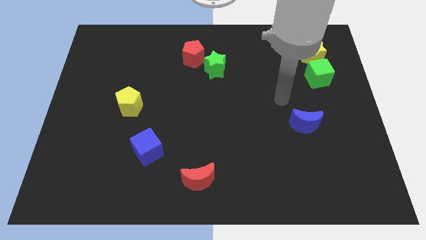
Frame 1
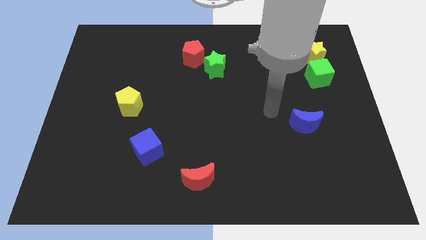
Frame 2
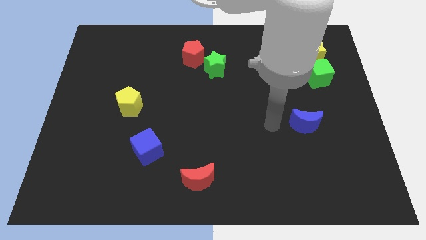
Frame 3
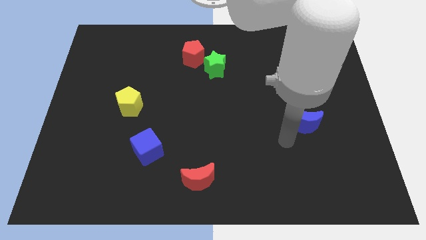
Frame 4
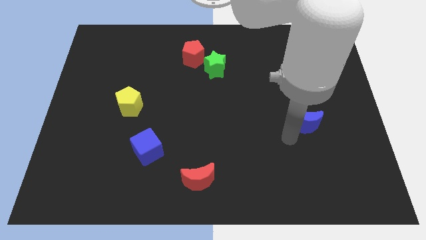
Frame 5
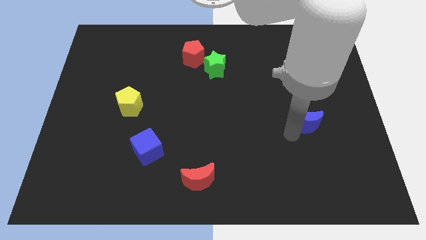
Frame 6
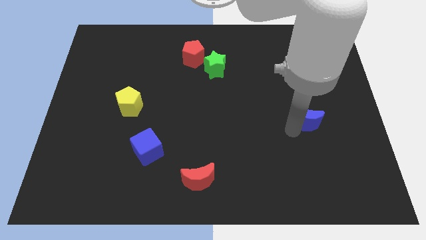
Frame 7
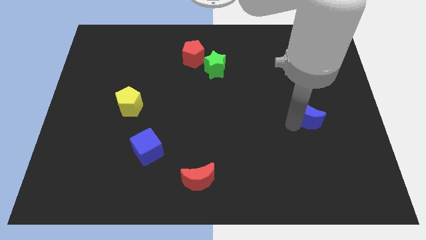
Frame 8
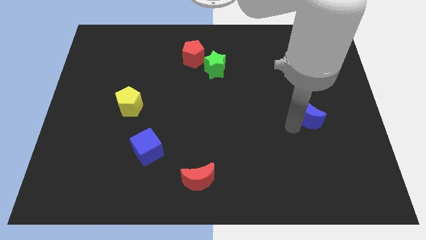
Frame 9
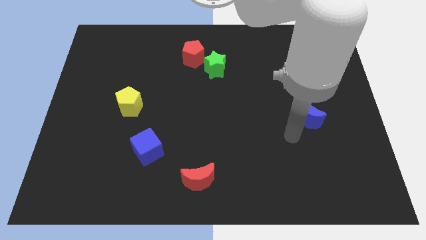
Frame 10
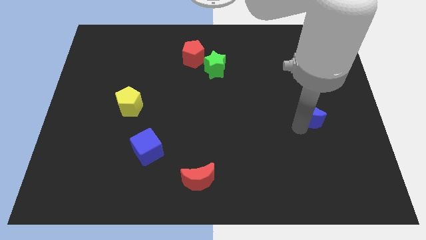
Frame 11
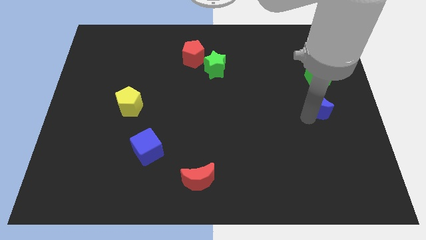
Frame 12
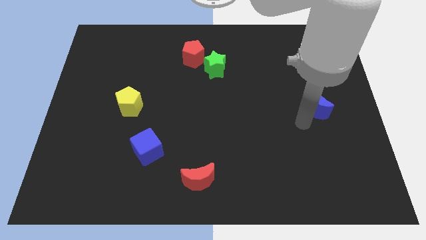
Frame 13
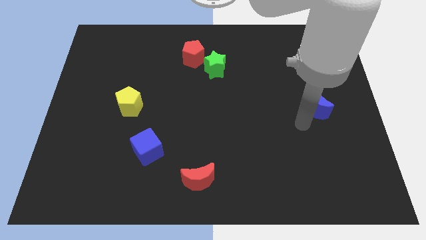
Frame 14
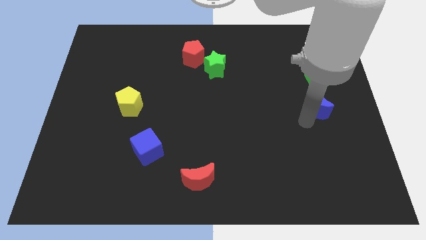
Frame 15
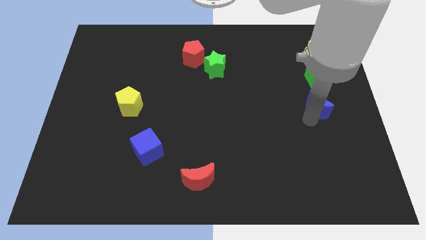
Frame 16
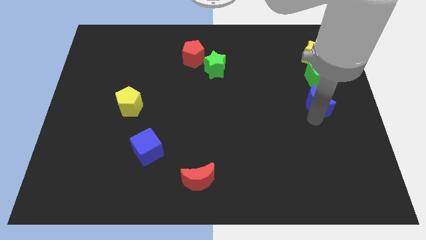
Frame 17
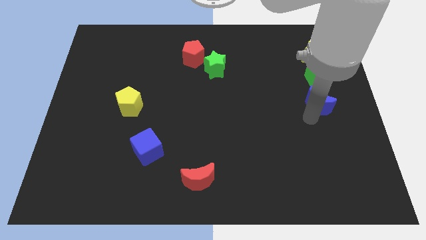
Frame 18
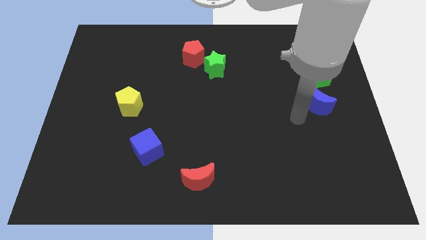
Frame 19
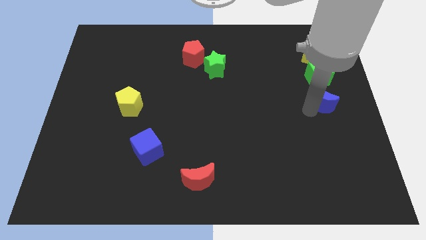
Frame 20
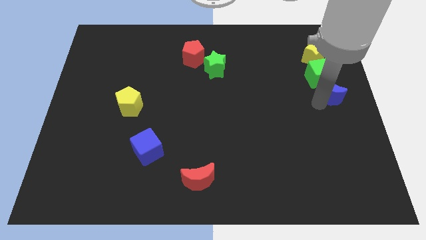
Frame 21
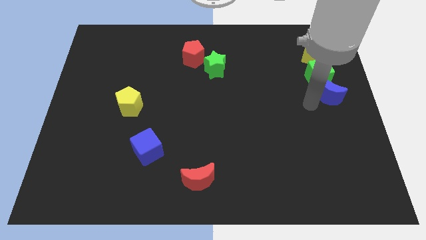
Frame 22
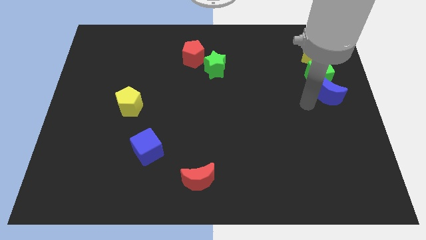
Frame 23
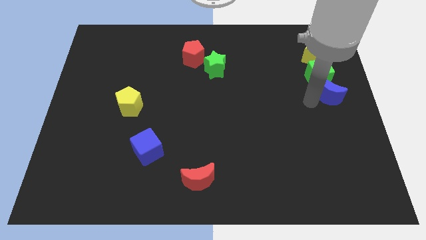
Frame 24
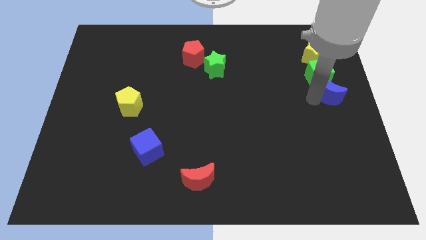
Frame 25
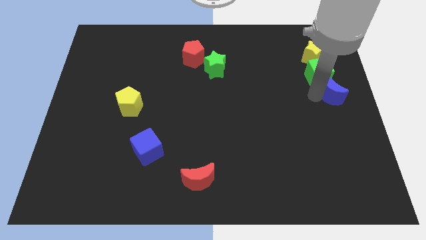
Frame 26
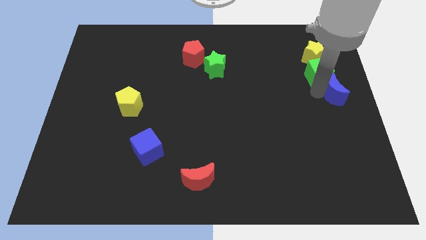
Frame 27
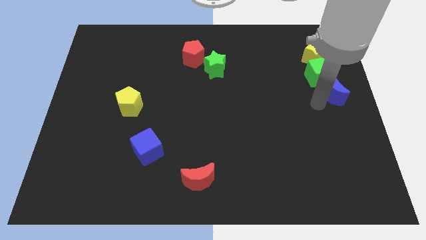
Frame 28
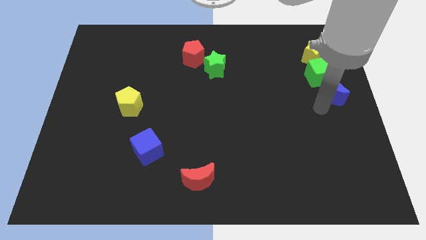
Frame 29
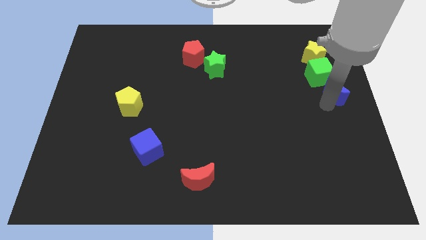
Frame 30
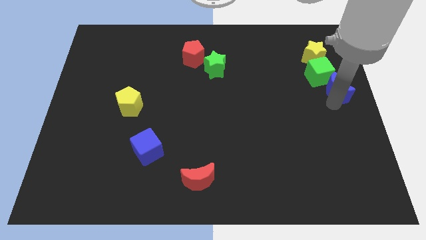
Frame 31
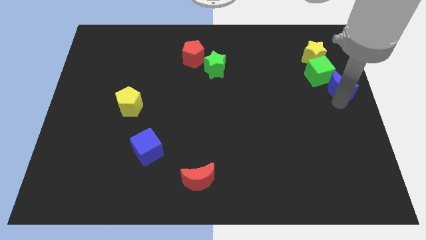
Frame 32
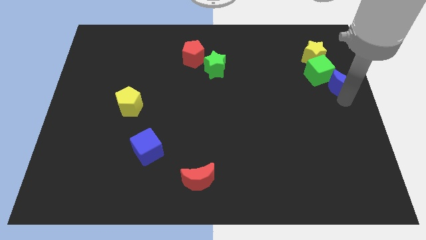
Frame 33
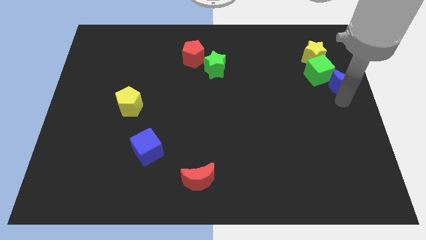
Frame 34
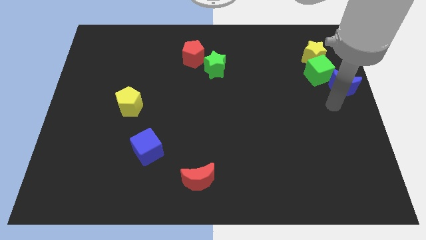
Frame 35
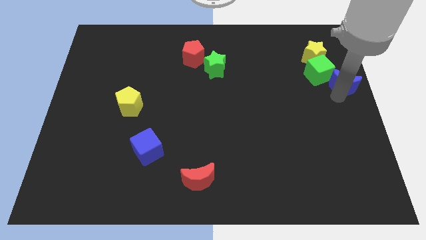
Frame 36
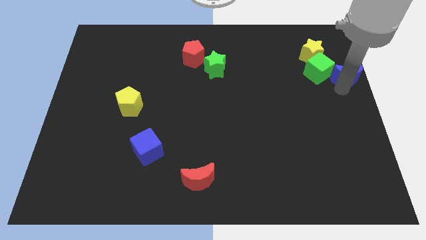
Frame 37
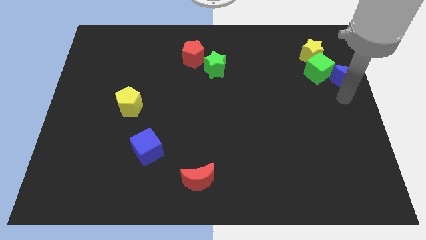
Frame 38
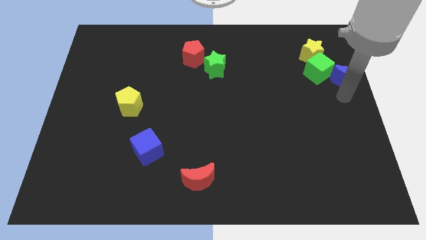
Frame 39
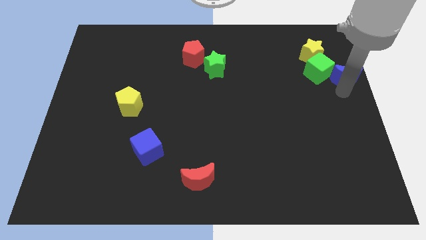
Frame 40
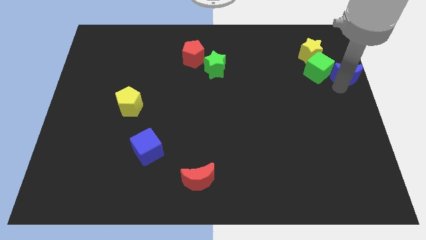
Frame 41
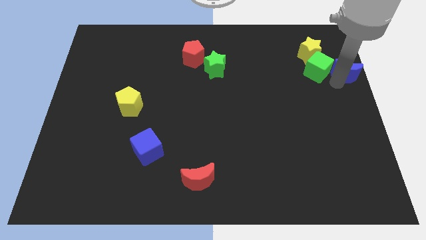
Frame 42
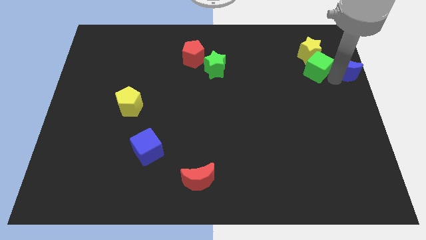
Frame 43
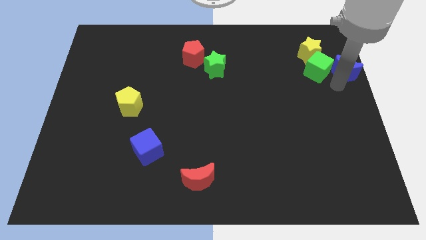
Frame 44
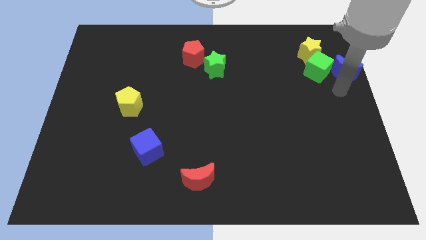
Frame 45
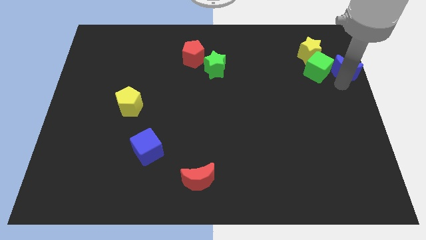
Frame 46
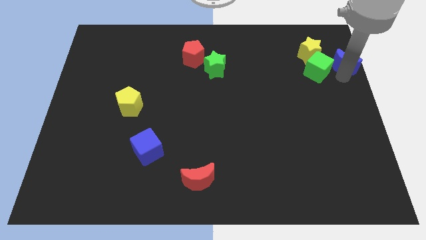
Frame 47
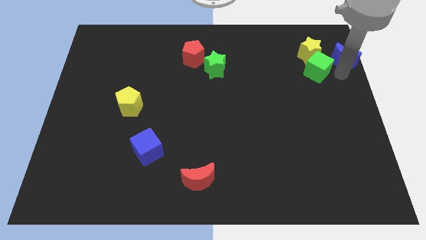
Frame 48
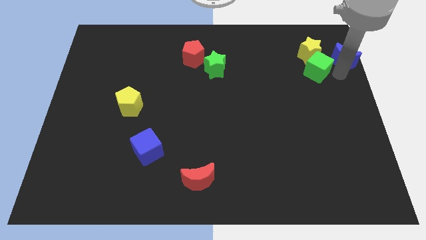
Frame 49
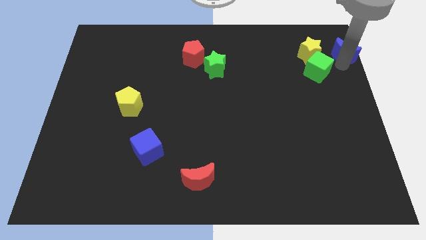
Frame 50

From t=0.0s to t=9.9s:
push the blue moon to the top right corner

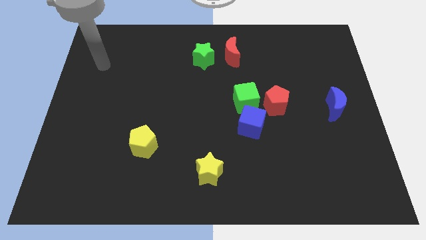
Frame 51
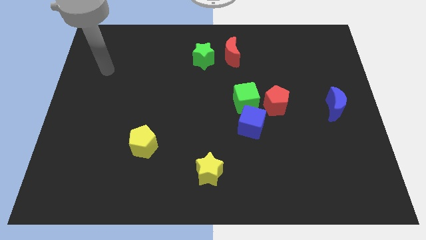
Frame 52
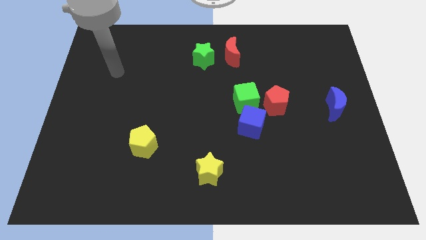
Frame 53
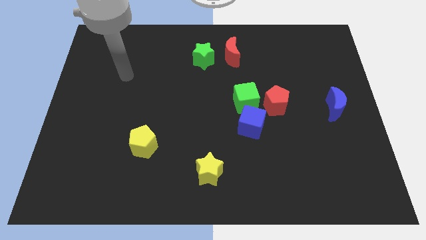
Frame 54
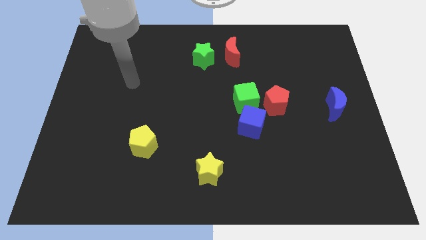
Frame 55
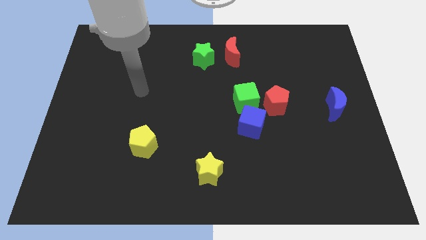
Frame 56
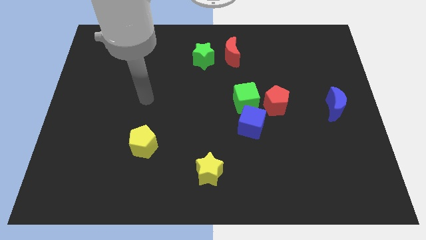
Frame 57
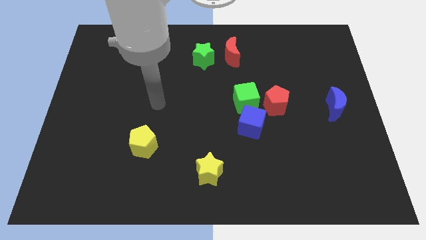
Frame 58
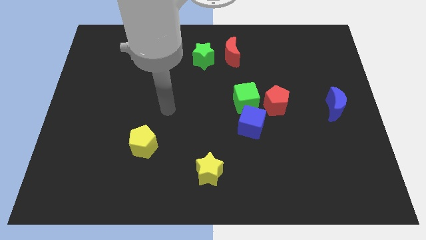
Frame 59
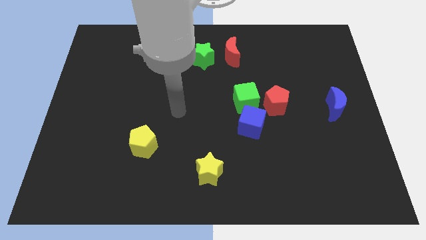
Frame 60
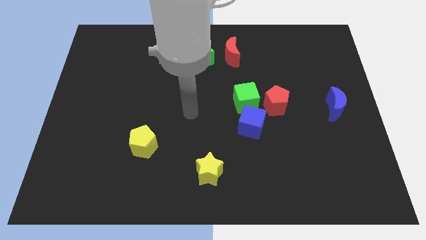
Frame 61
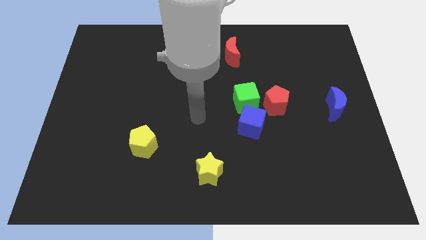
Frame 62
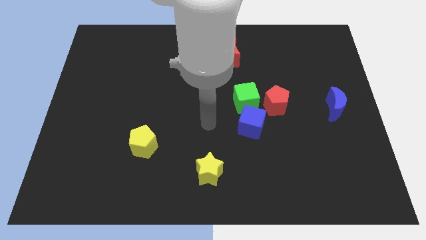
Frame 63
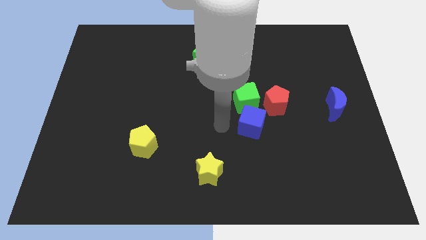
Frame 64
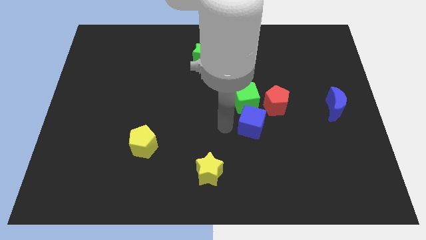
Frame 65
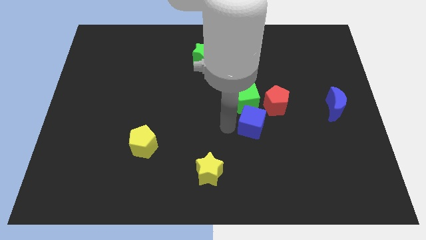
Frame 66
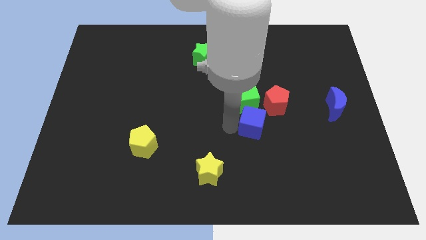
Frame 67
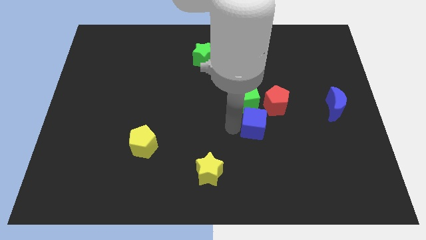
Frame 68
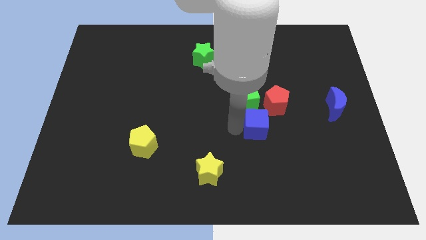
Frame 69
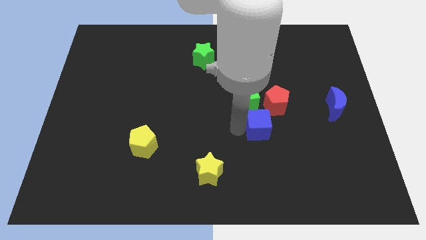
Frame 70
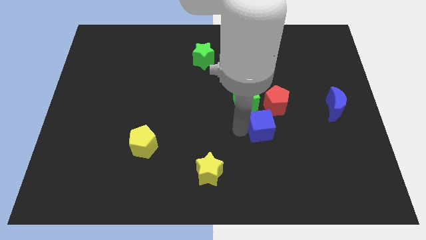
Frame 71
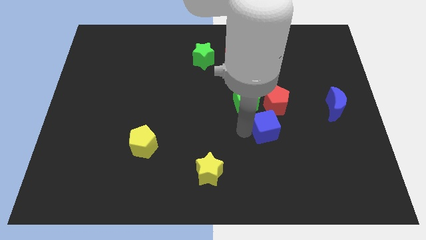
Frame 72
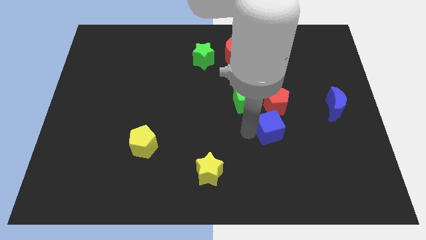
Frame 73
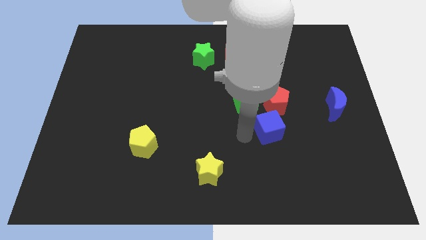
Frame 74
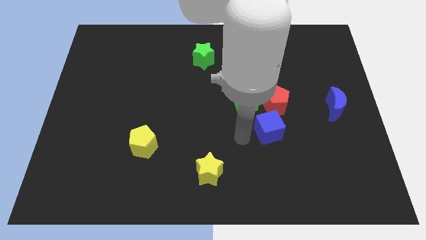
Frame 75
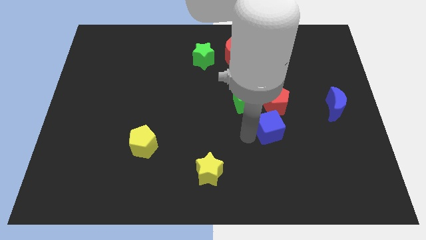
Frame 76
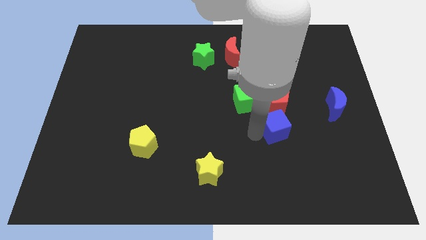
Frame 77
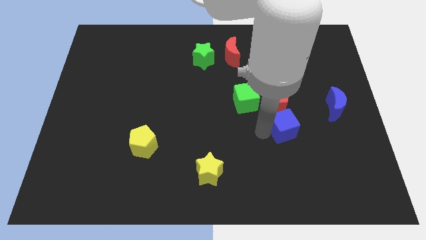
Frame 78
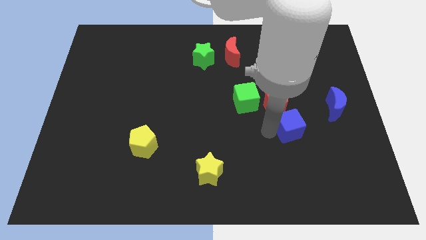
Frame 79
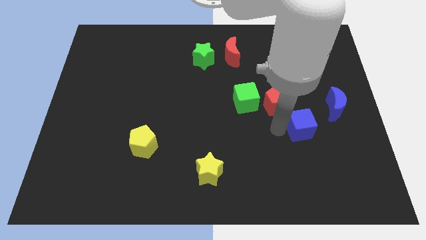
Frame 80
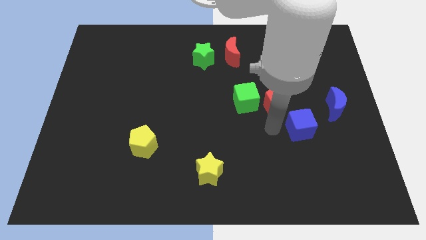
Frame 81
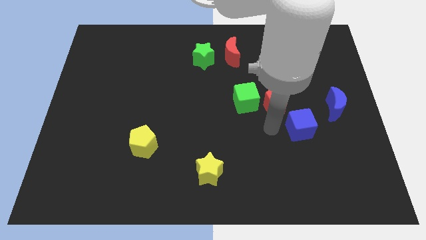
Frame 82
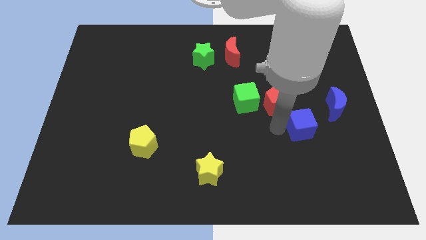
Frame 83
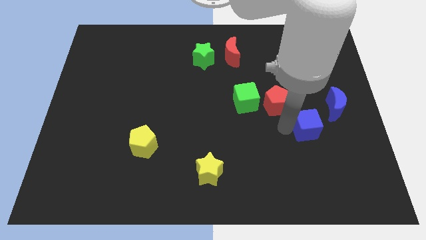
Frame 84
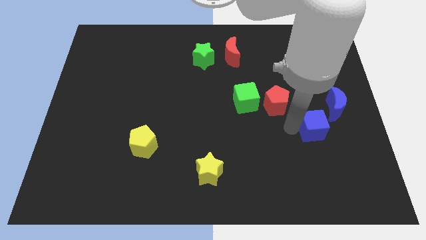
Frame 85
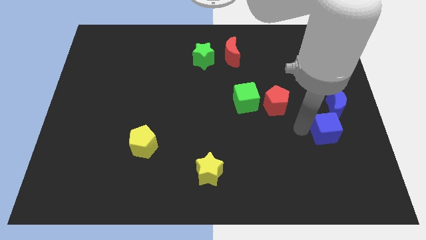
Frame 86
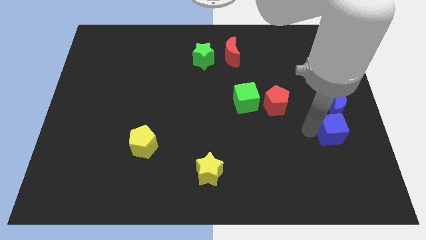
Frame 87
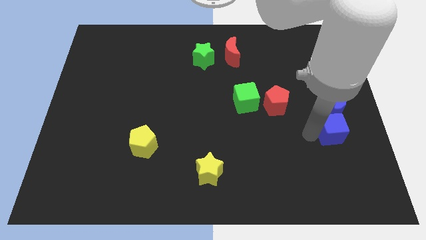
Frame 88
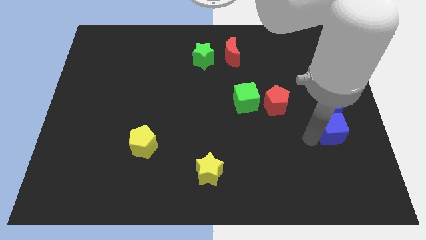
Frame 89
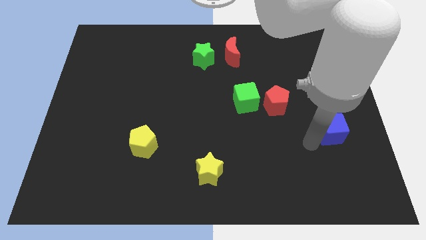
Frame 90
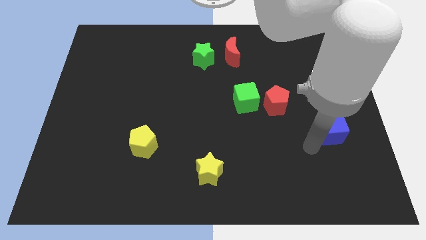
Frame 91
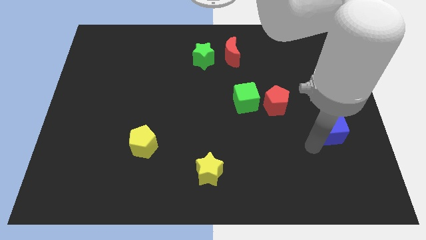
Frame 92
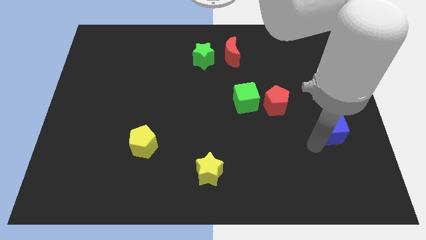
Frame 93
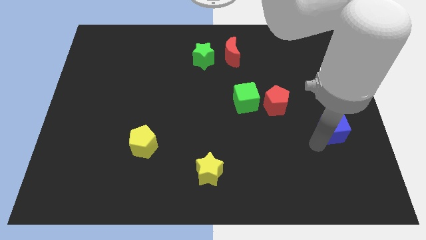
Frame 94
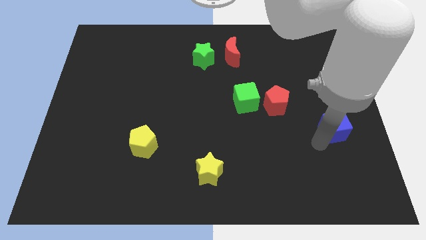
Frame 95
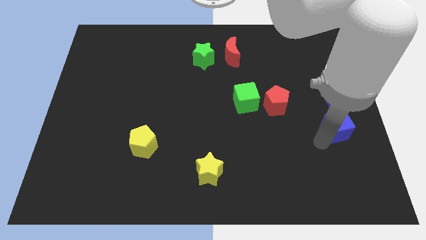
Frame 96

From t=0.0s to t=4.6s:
slide the blue cube to the right side of the board
